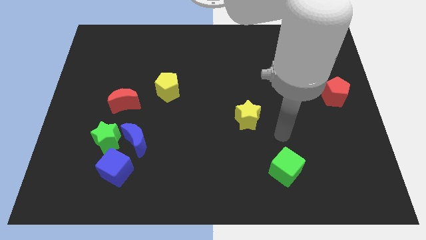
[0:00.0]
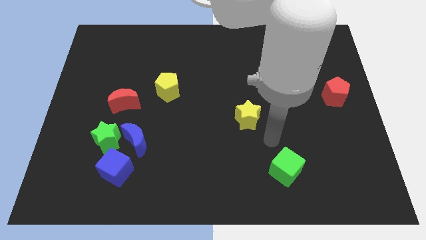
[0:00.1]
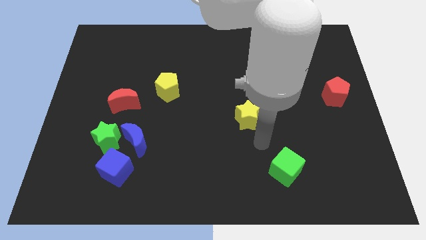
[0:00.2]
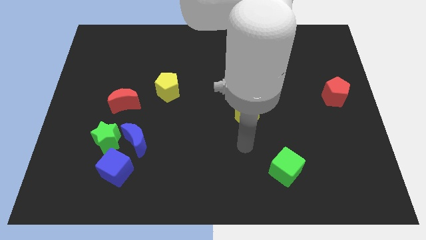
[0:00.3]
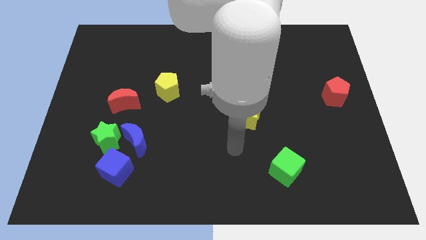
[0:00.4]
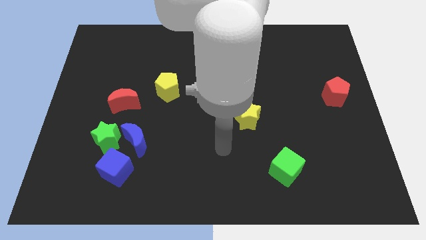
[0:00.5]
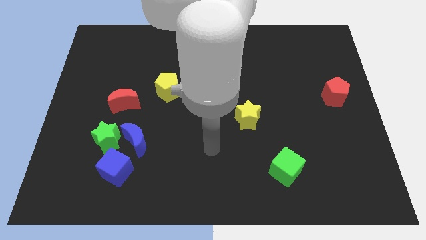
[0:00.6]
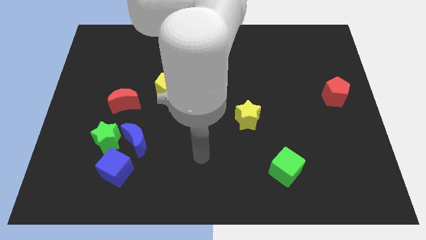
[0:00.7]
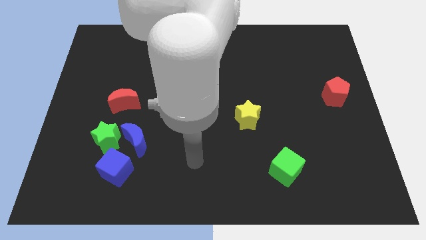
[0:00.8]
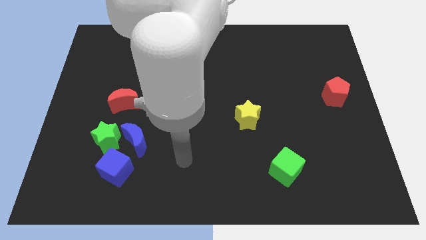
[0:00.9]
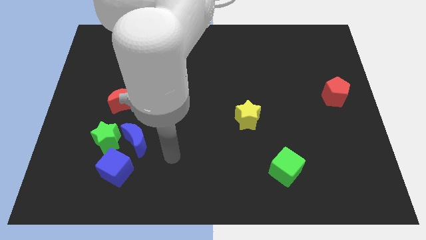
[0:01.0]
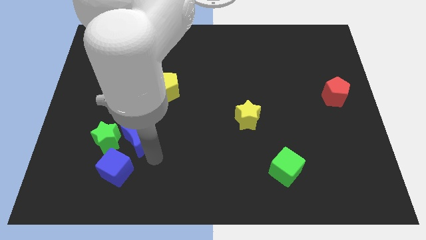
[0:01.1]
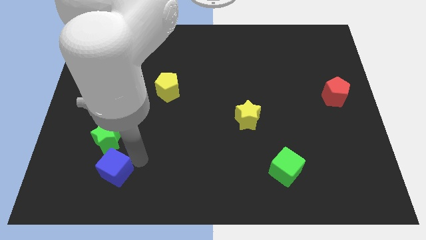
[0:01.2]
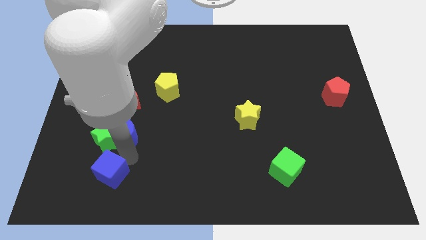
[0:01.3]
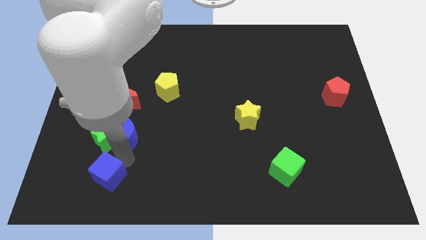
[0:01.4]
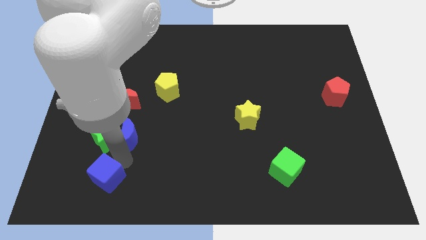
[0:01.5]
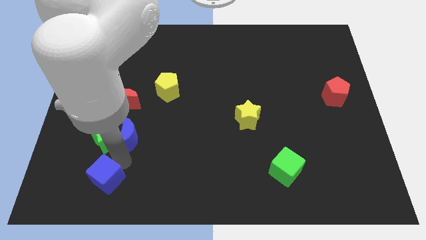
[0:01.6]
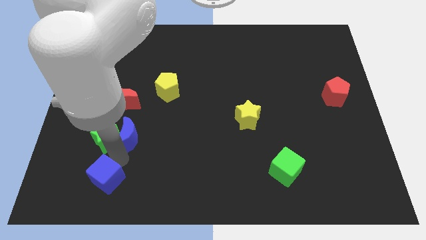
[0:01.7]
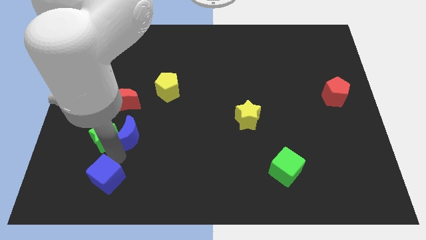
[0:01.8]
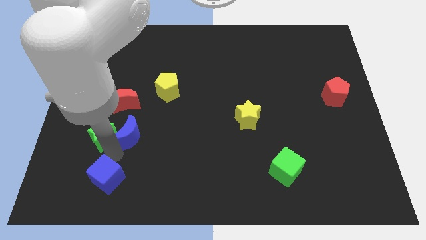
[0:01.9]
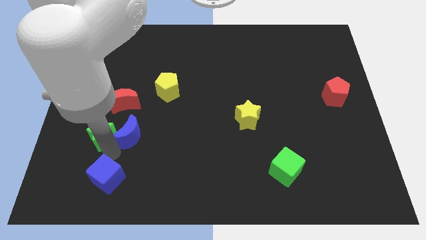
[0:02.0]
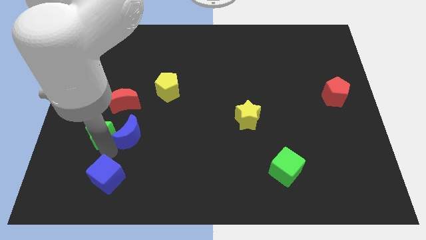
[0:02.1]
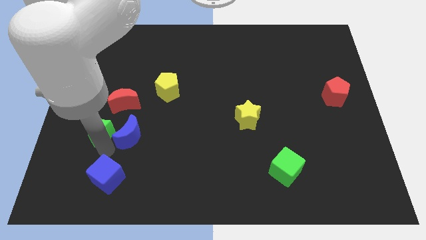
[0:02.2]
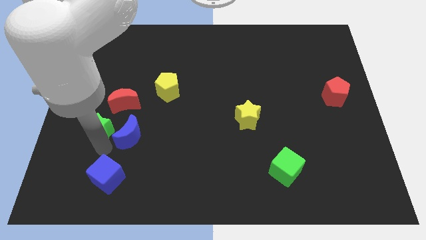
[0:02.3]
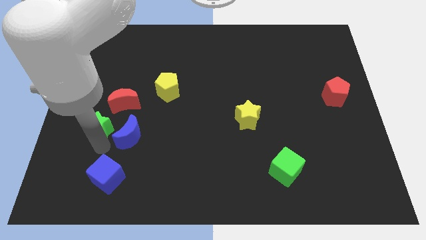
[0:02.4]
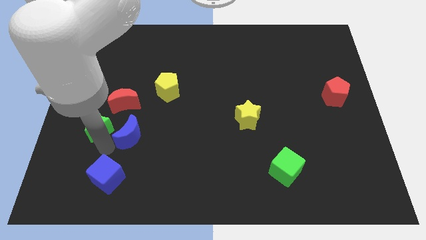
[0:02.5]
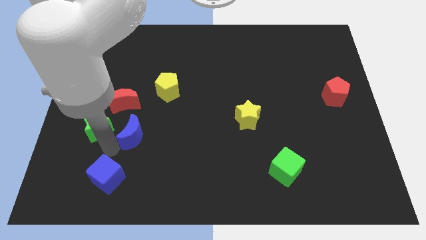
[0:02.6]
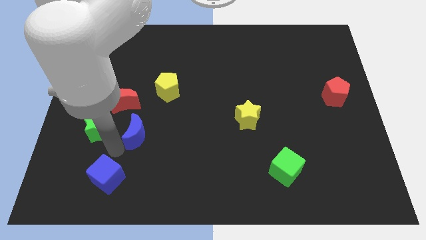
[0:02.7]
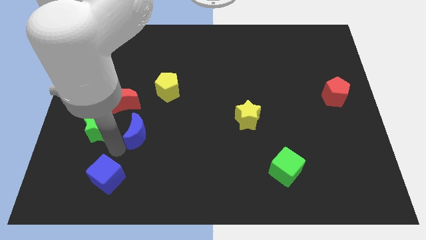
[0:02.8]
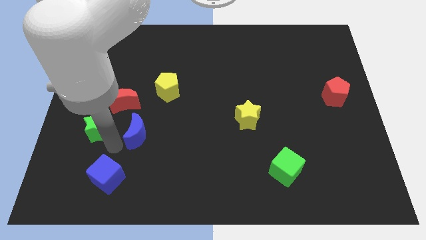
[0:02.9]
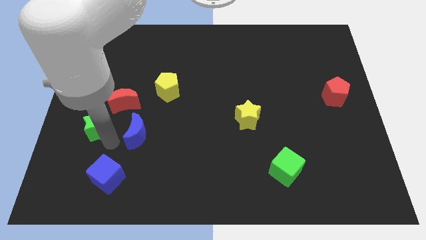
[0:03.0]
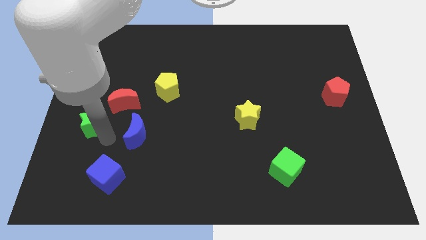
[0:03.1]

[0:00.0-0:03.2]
move the green star away from the blue moon and blue cube

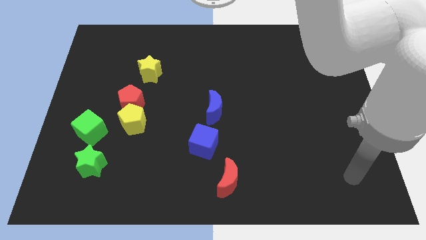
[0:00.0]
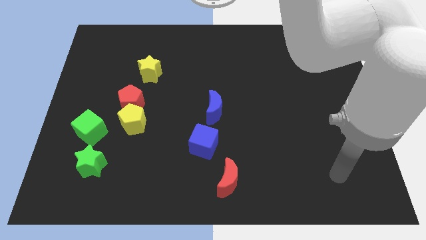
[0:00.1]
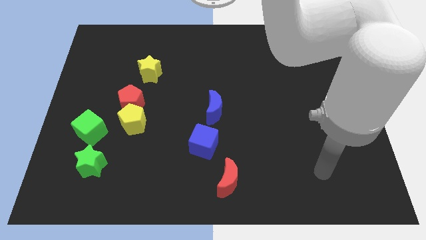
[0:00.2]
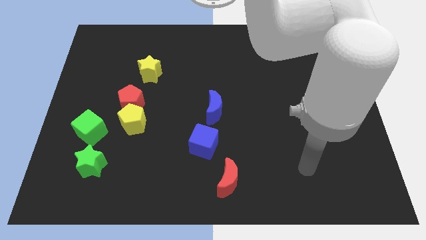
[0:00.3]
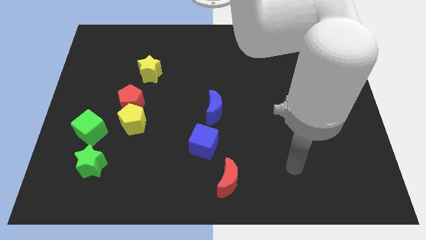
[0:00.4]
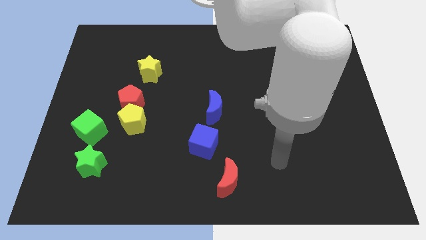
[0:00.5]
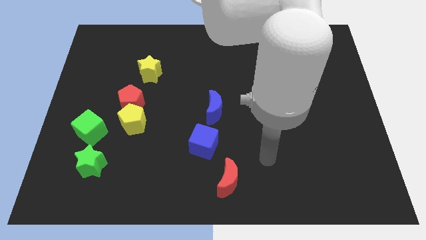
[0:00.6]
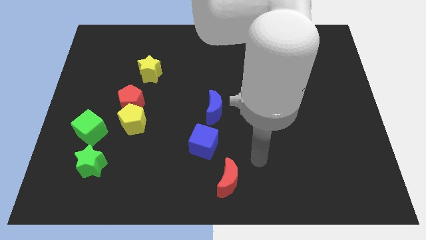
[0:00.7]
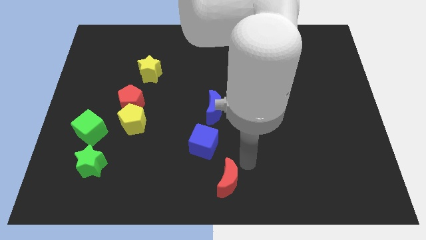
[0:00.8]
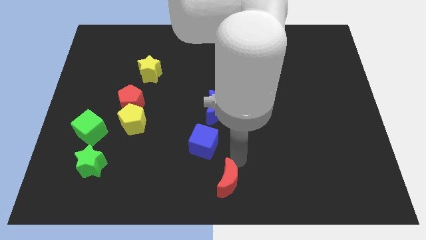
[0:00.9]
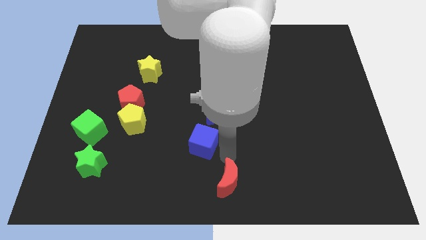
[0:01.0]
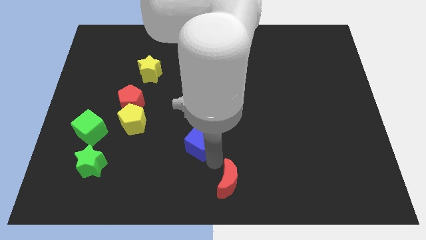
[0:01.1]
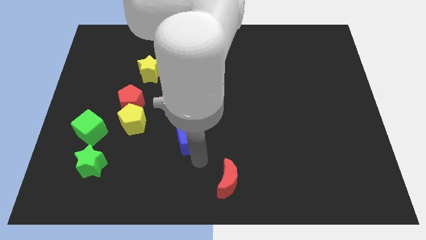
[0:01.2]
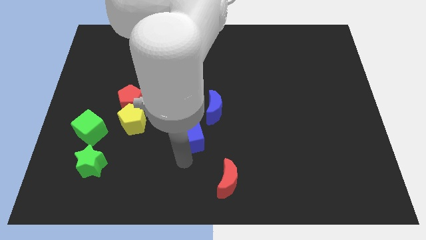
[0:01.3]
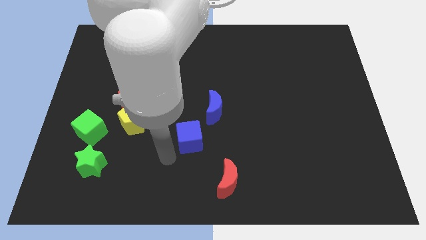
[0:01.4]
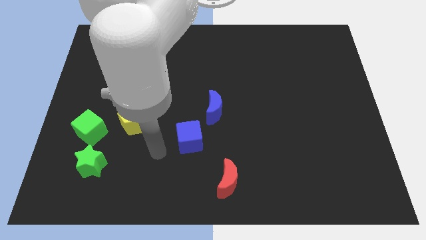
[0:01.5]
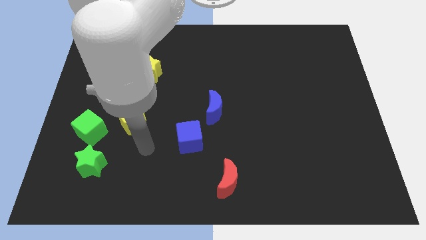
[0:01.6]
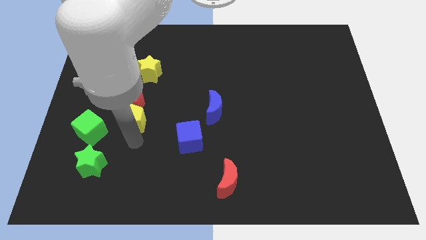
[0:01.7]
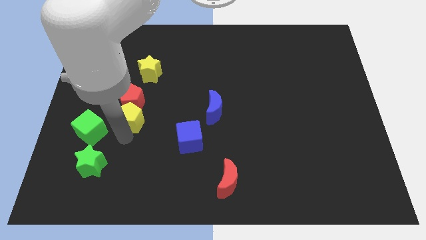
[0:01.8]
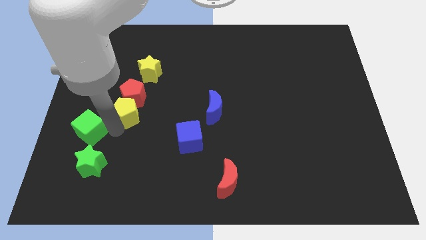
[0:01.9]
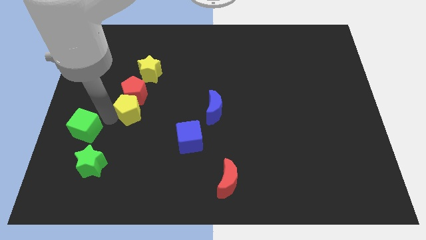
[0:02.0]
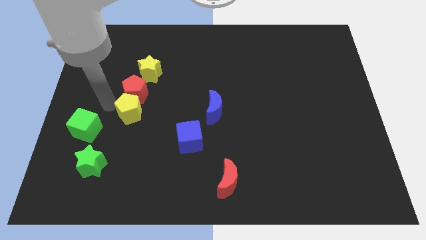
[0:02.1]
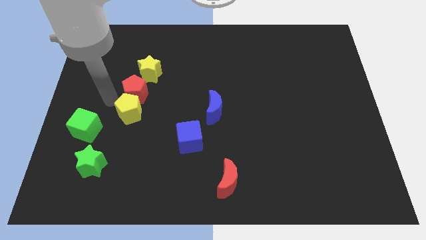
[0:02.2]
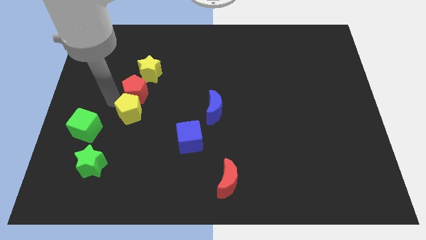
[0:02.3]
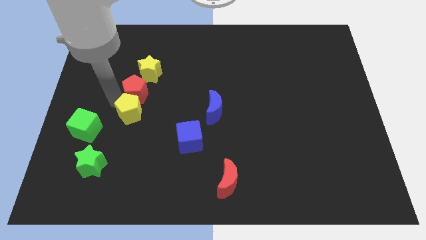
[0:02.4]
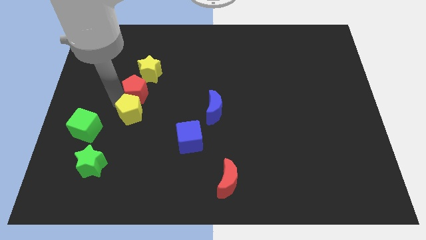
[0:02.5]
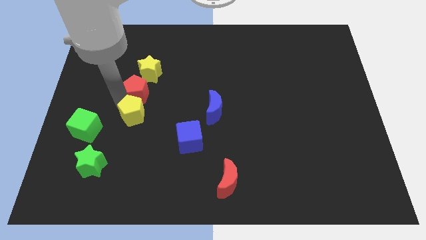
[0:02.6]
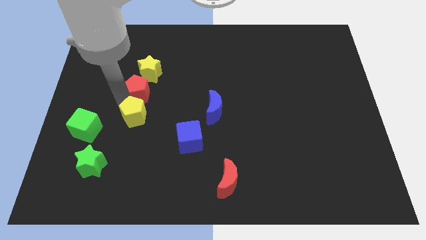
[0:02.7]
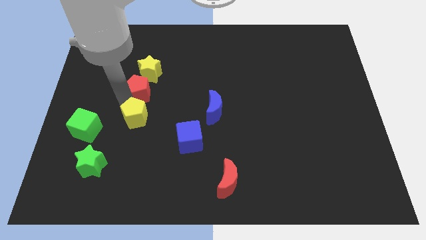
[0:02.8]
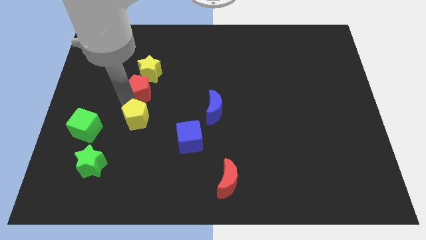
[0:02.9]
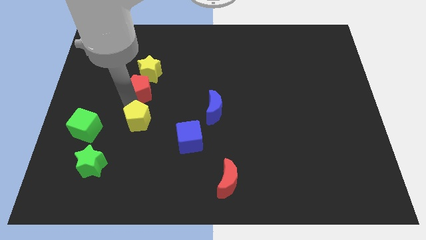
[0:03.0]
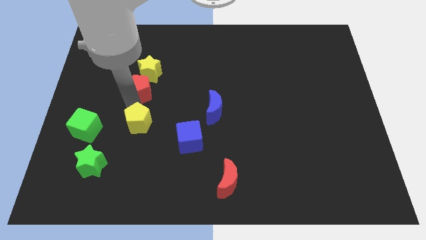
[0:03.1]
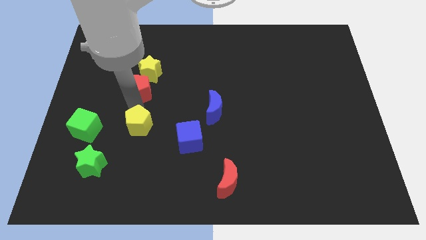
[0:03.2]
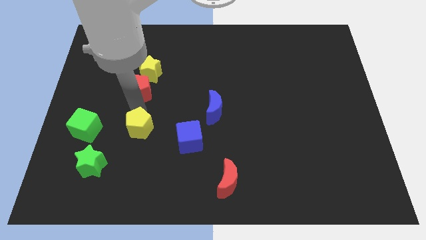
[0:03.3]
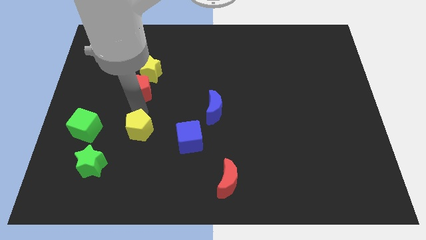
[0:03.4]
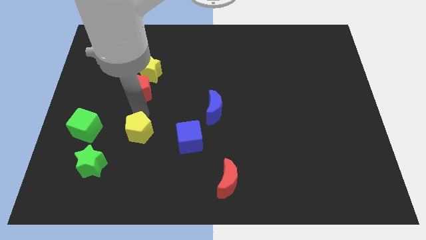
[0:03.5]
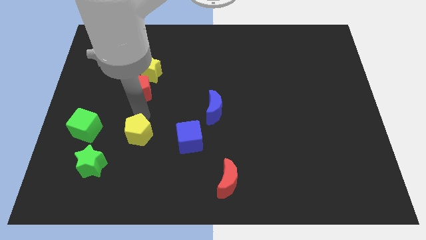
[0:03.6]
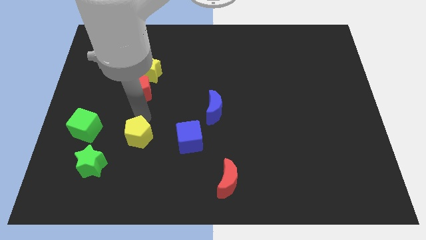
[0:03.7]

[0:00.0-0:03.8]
pull the yellow pentagon apart from the red pentagon and green cube

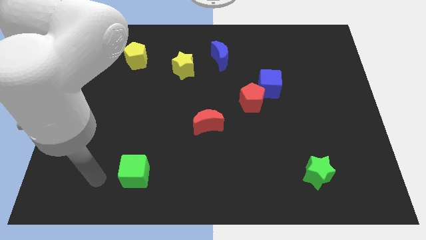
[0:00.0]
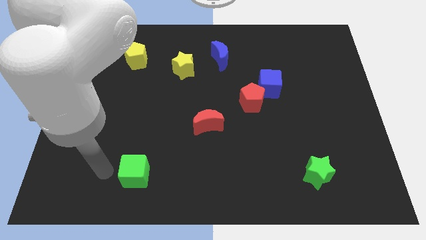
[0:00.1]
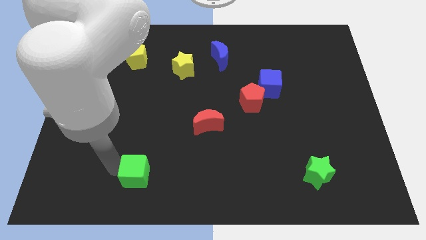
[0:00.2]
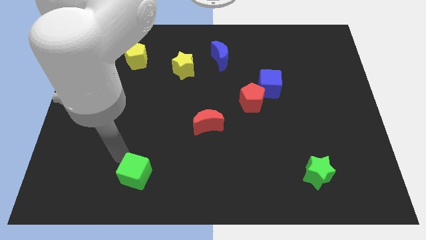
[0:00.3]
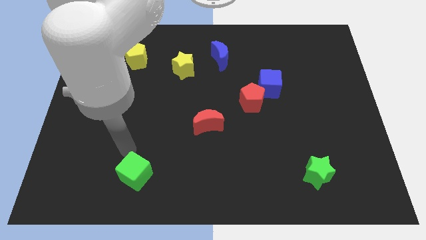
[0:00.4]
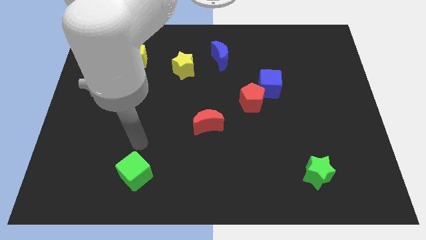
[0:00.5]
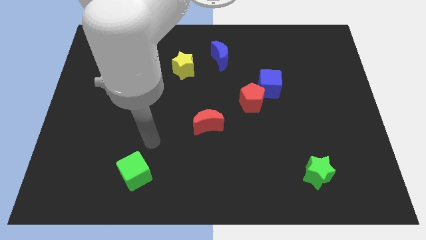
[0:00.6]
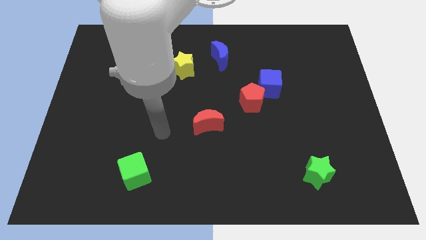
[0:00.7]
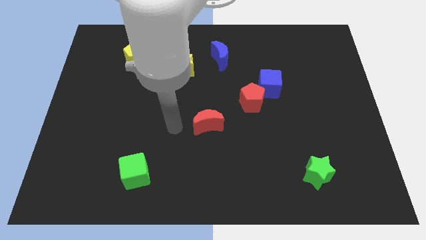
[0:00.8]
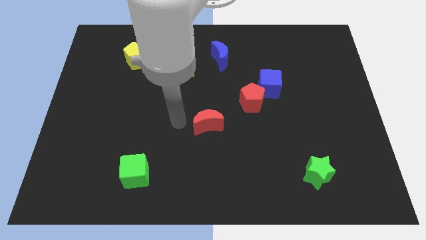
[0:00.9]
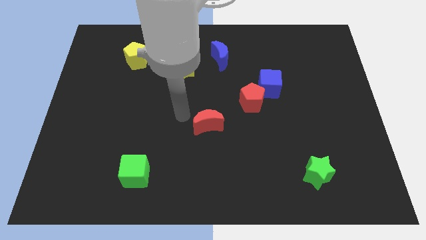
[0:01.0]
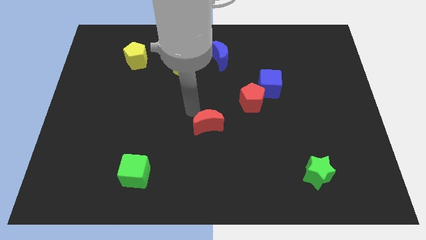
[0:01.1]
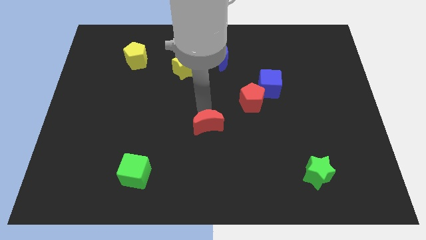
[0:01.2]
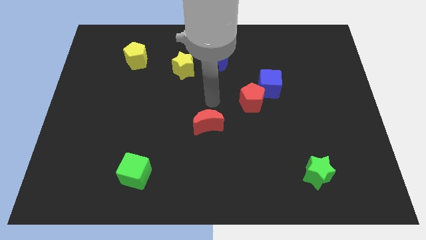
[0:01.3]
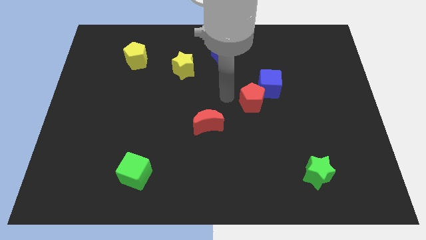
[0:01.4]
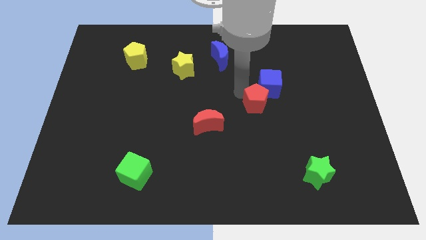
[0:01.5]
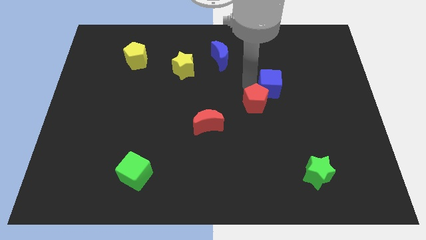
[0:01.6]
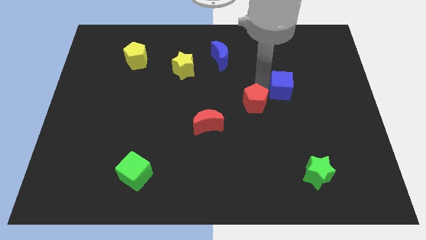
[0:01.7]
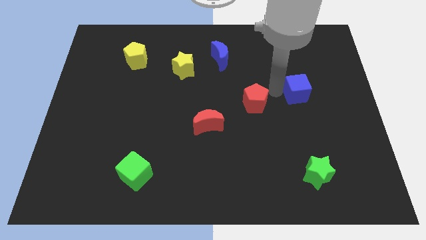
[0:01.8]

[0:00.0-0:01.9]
pull the red pentagon apart from the blue cube

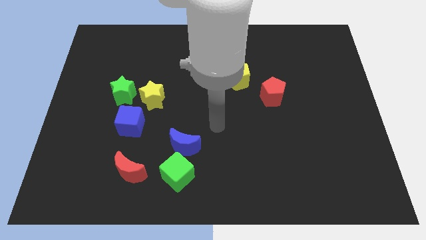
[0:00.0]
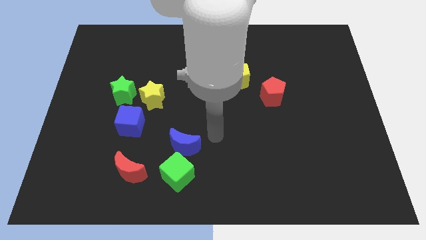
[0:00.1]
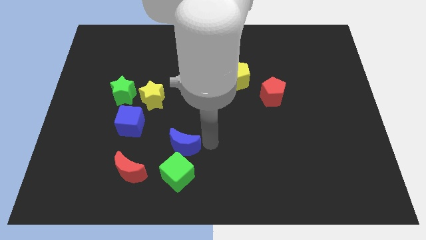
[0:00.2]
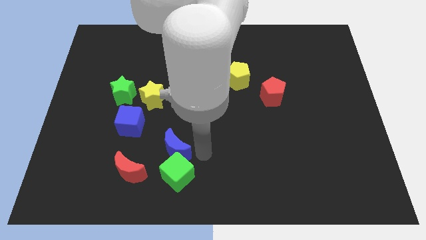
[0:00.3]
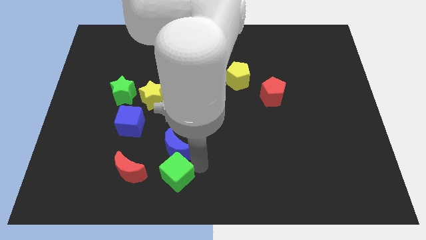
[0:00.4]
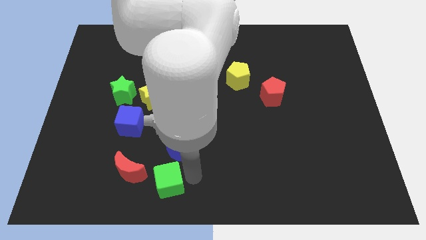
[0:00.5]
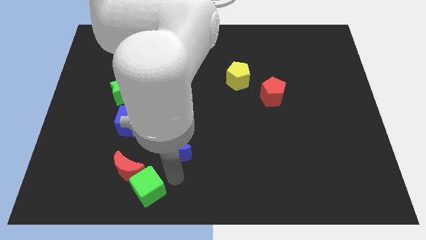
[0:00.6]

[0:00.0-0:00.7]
move the blue moon away from the green cube
